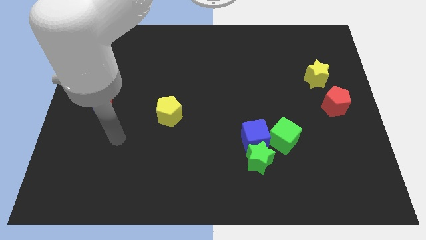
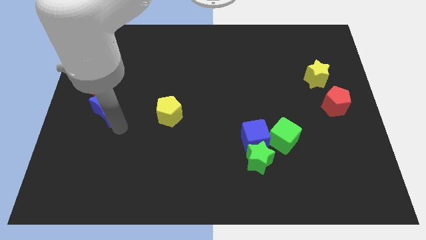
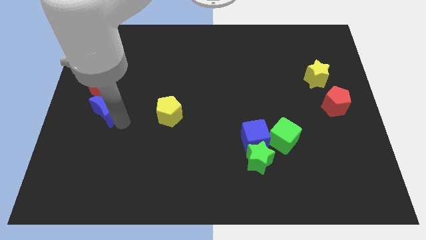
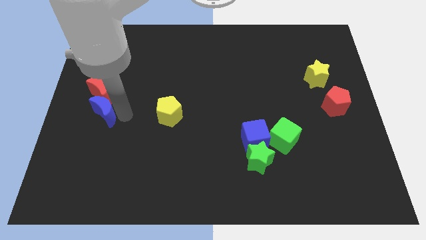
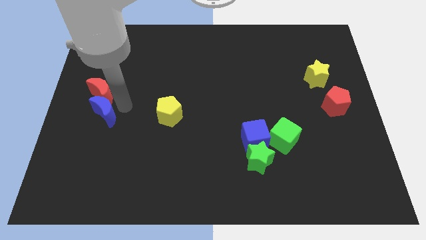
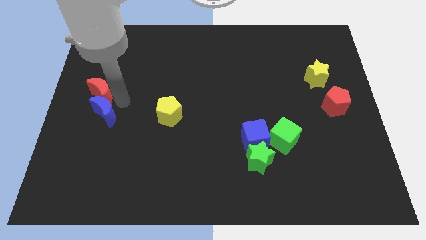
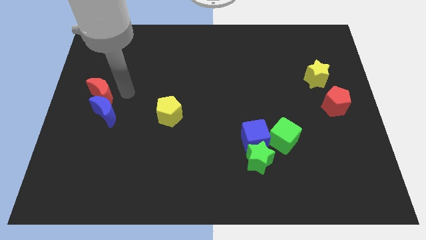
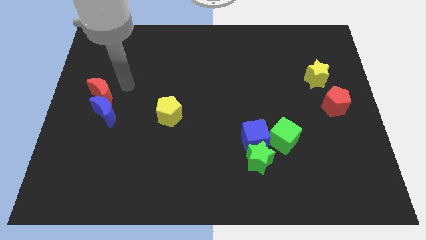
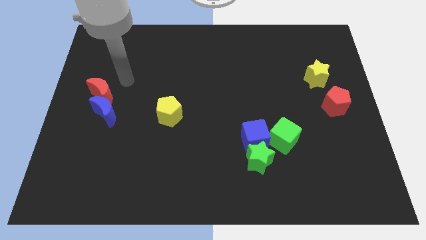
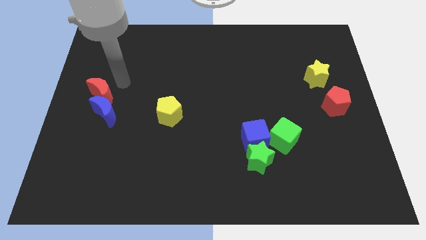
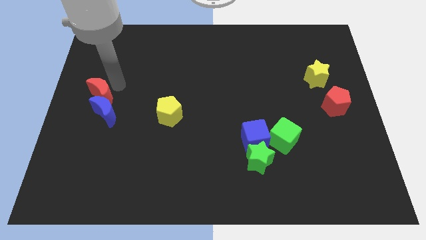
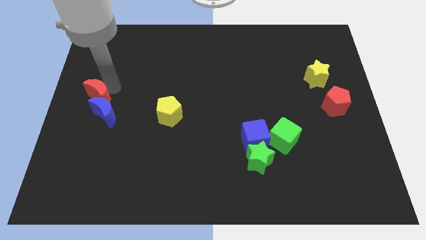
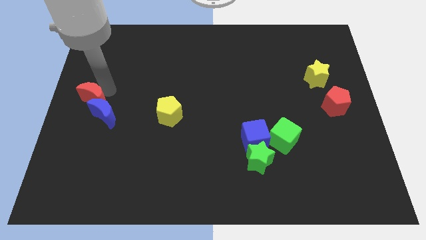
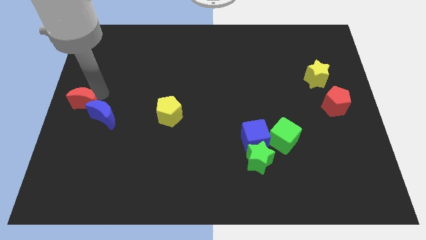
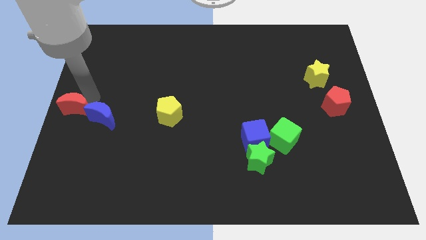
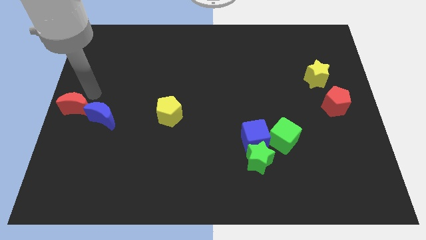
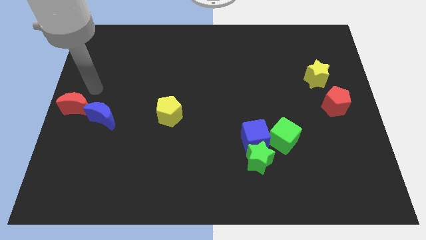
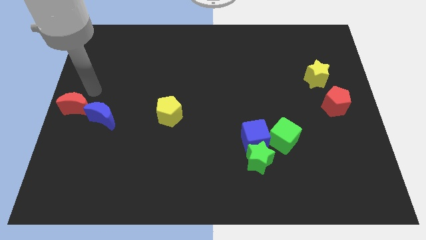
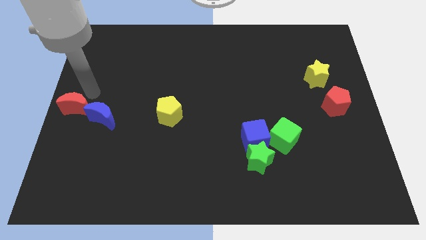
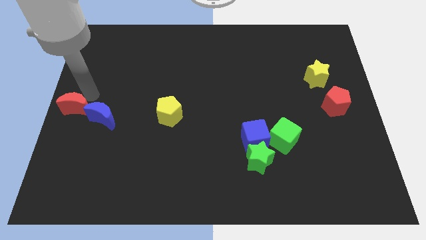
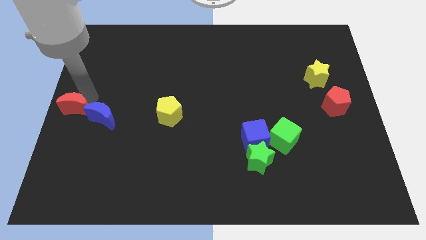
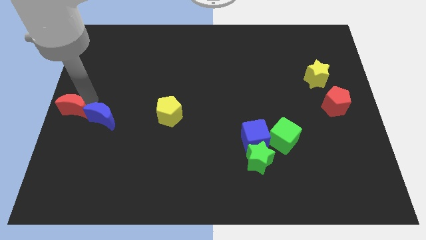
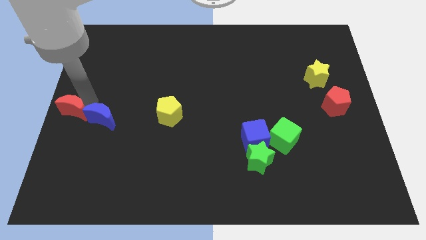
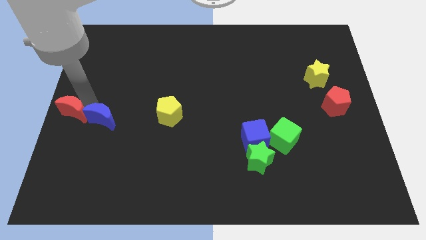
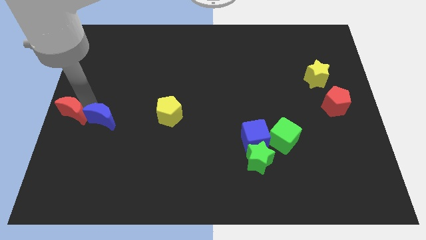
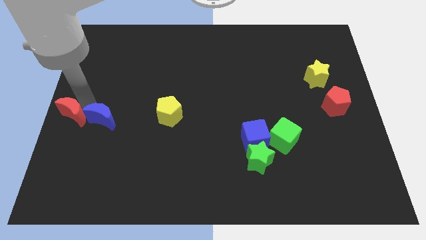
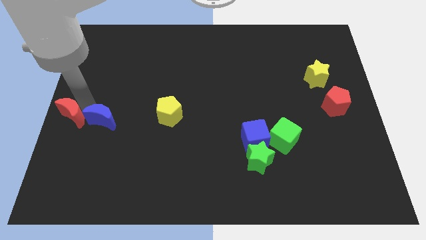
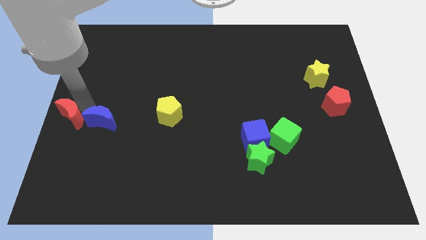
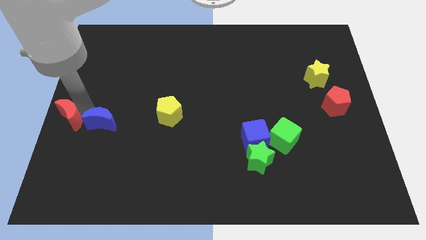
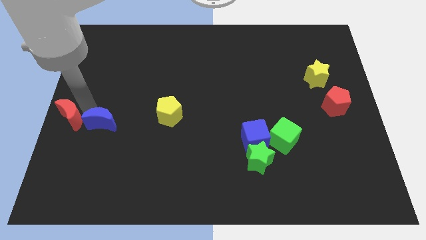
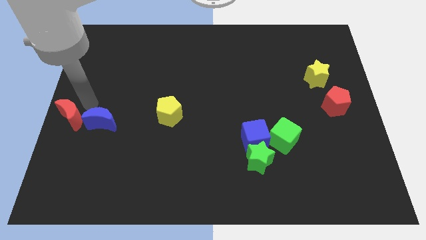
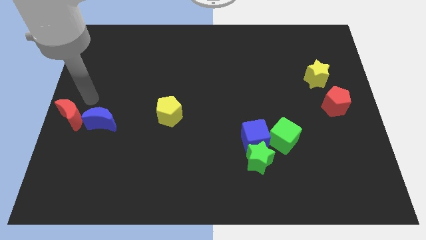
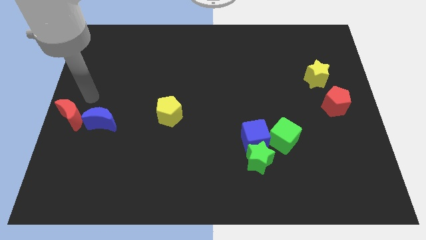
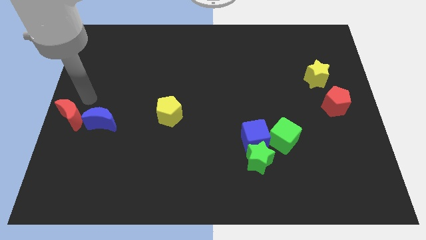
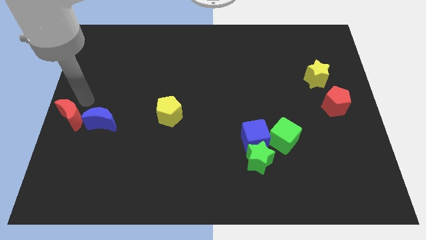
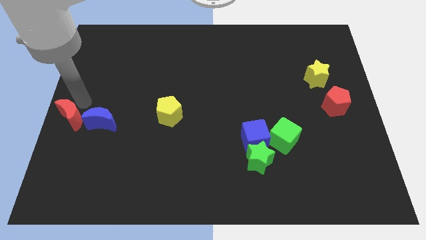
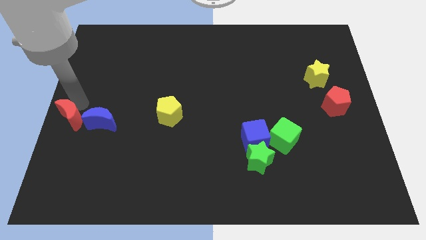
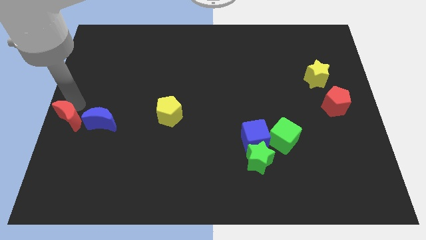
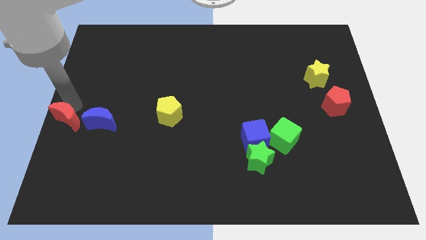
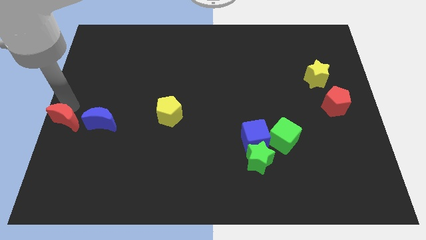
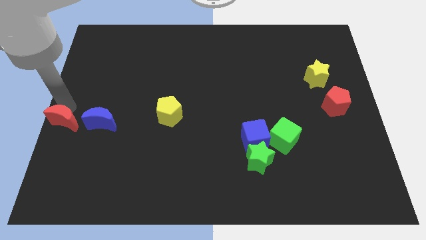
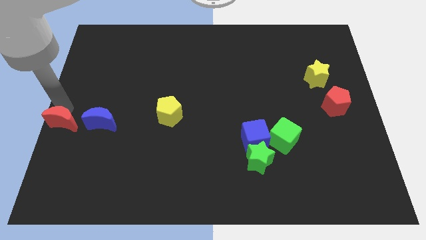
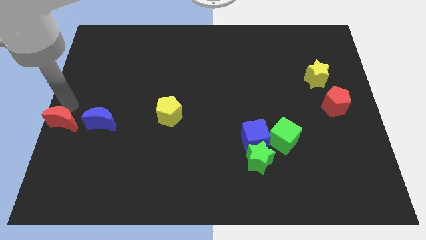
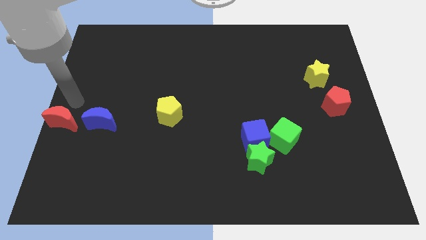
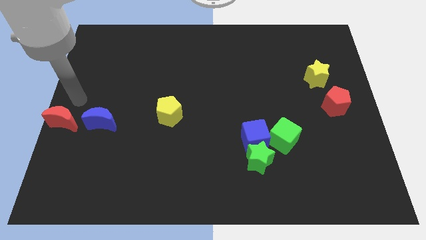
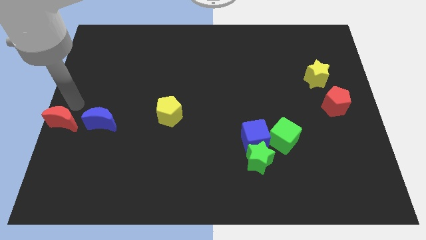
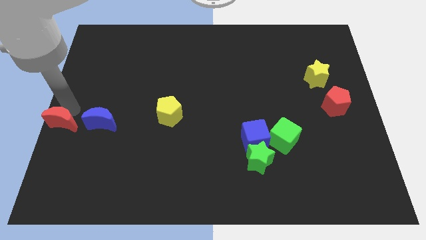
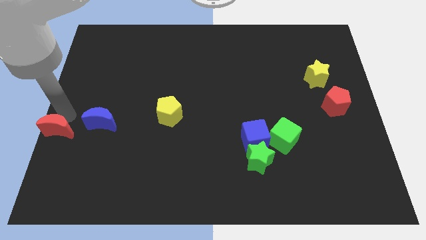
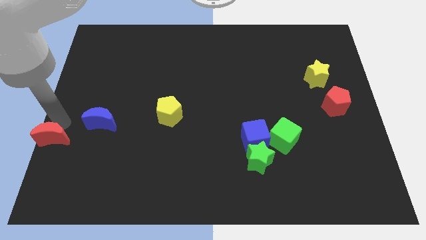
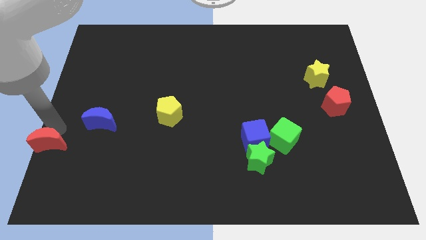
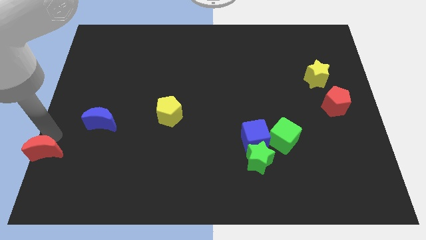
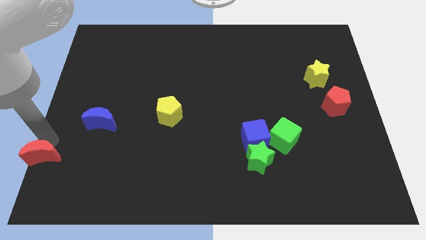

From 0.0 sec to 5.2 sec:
push the red moon to the bottom left corner

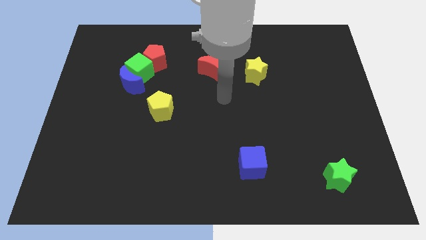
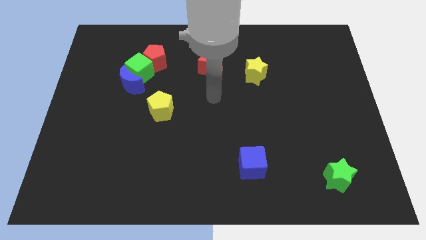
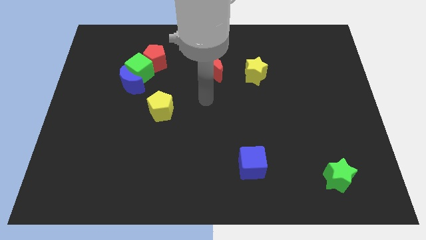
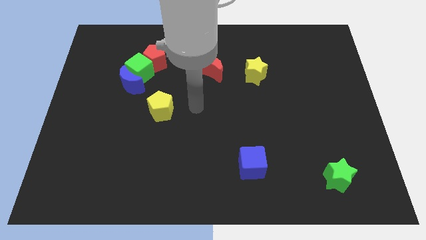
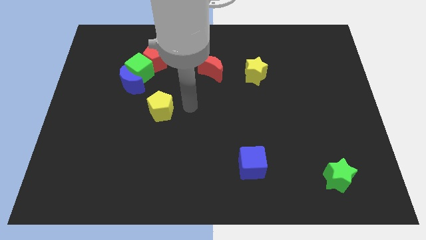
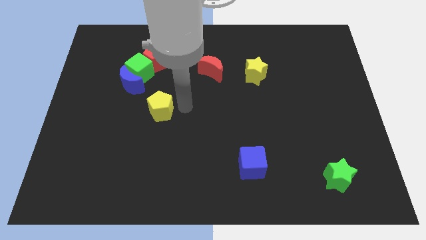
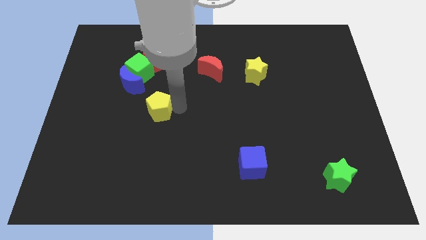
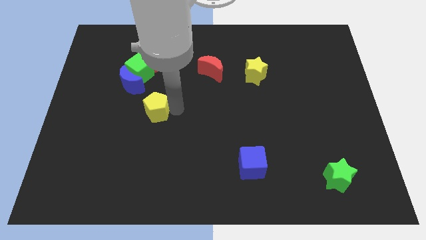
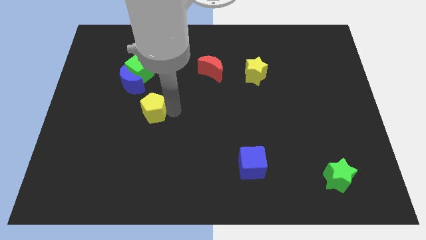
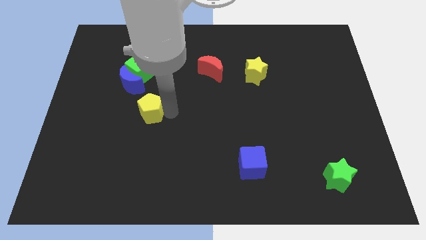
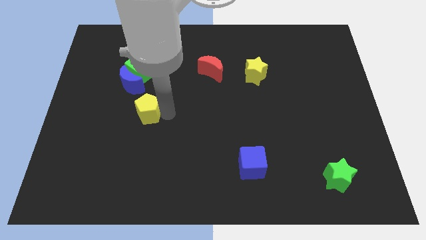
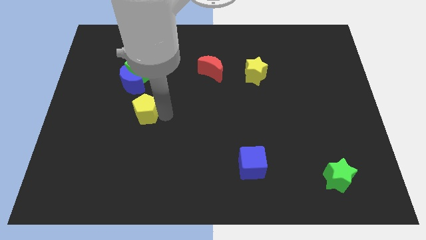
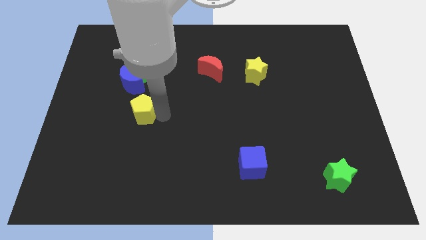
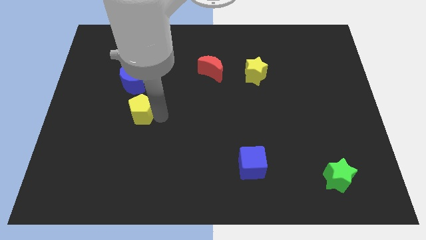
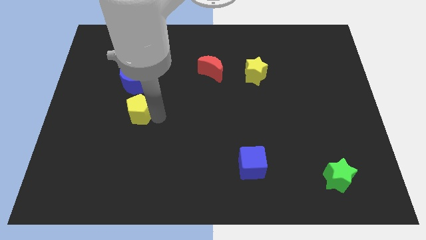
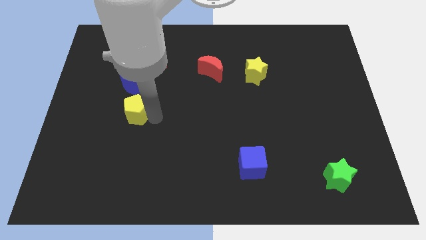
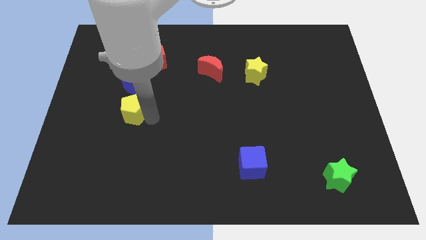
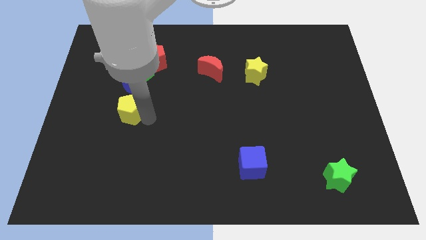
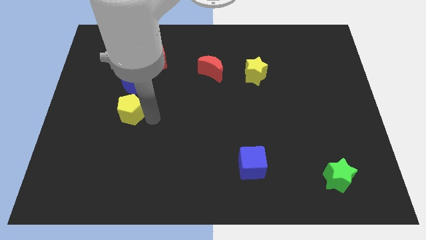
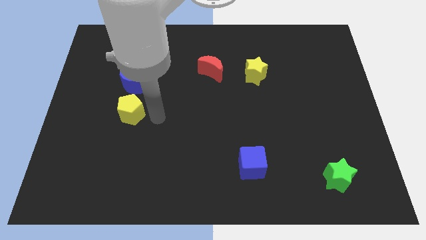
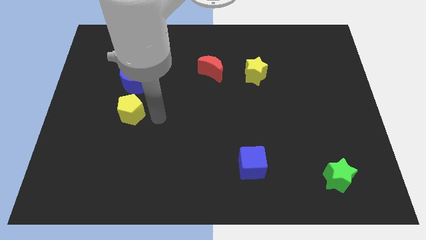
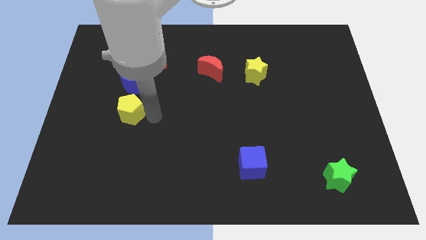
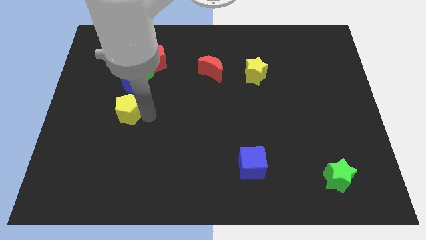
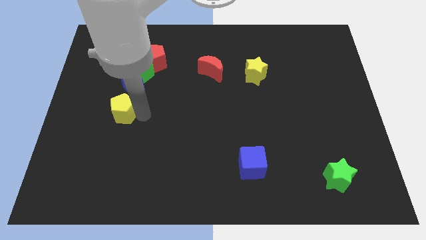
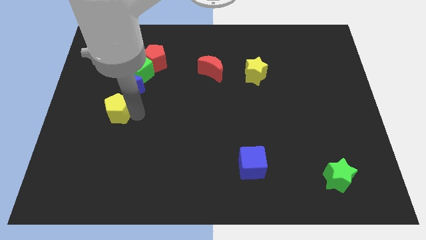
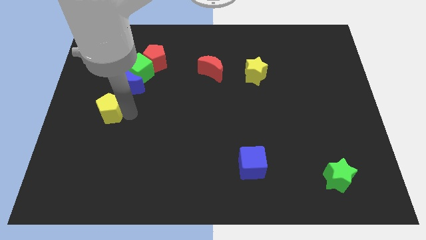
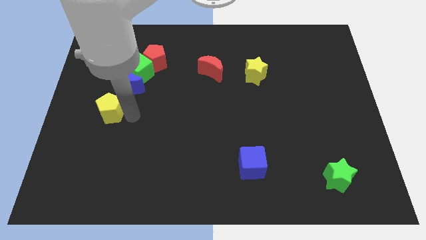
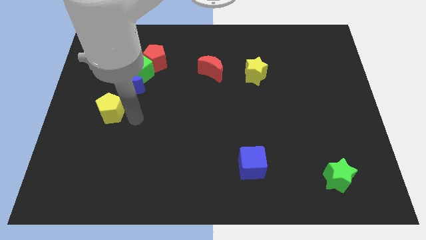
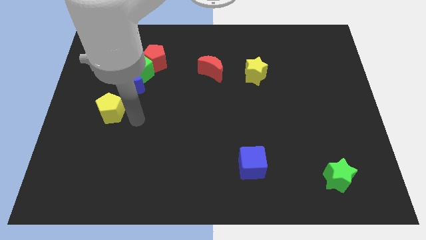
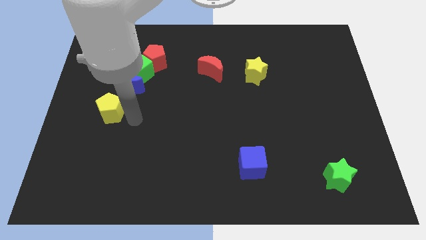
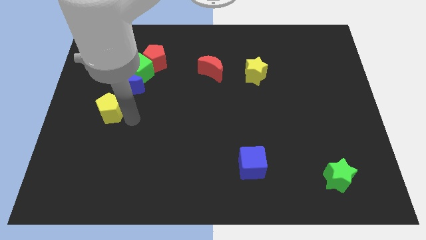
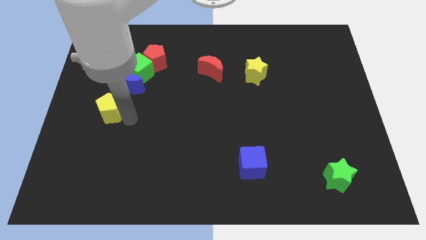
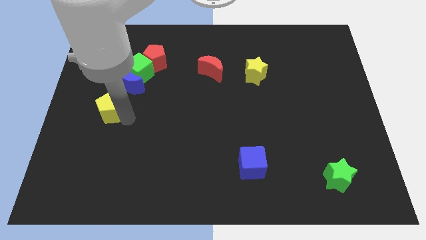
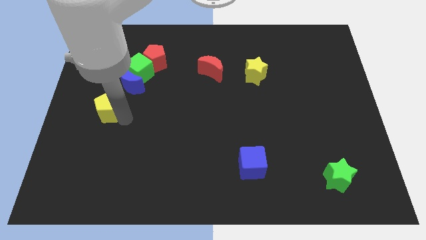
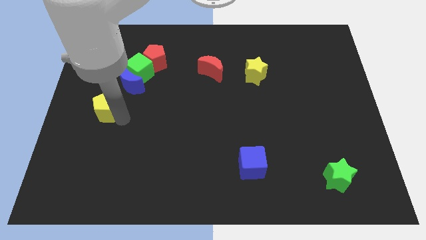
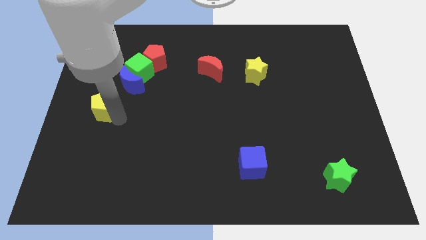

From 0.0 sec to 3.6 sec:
push the yellow pentagon to the left side of the board
